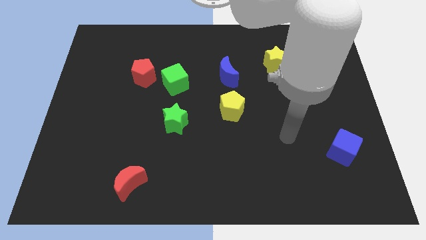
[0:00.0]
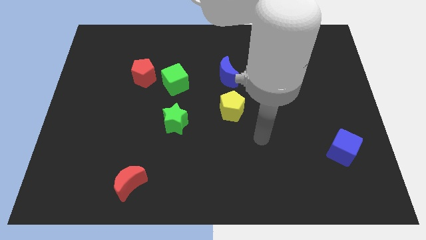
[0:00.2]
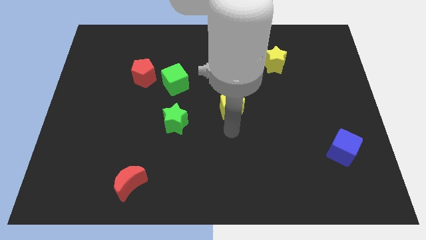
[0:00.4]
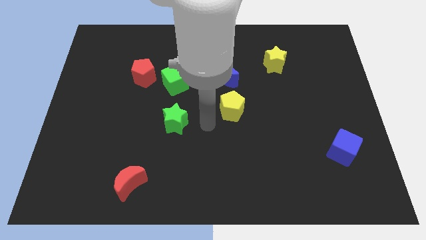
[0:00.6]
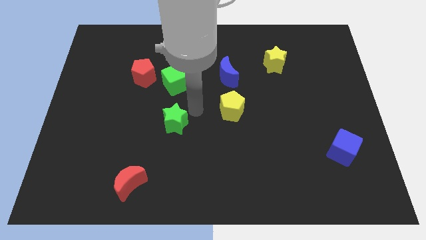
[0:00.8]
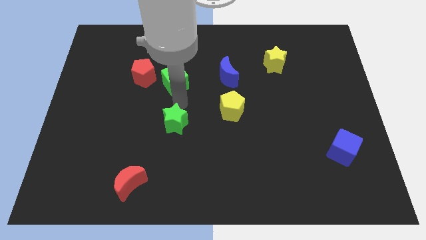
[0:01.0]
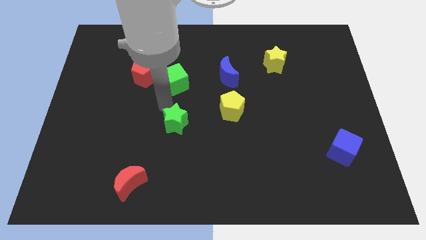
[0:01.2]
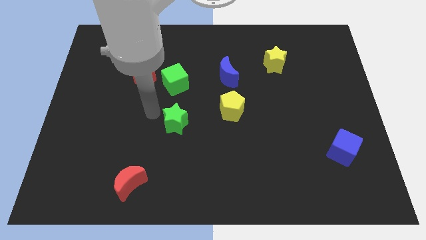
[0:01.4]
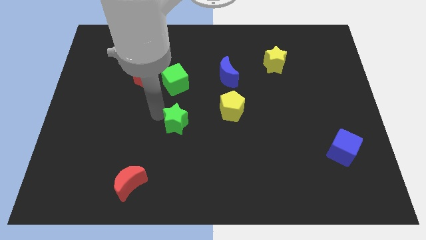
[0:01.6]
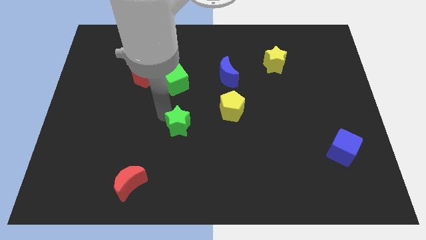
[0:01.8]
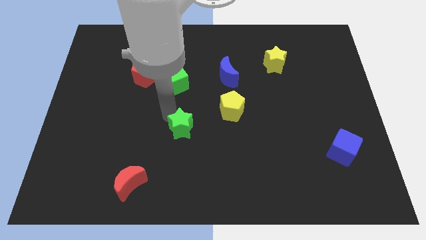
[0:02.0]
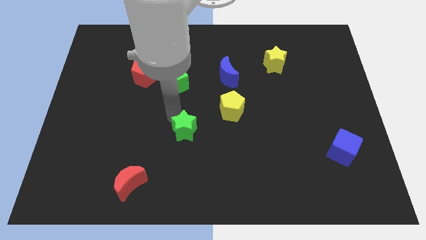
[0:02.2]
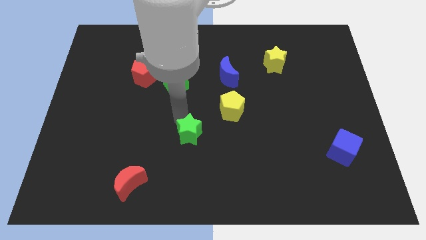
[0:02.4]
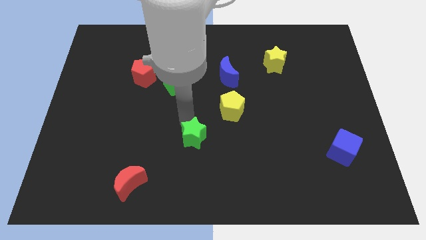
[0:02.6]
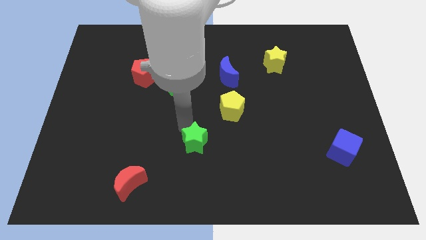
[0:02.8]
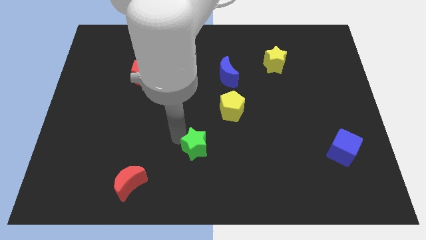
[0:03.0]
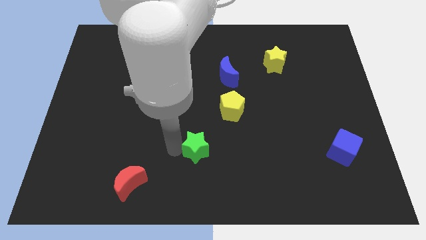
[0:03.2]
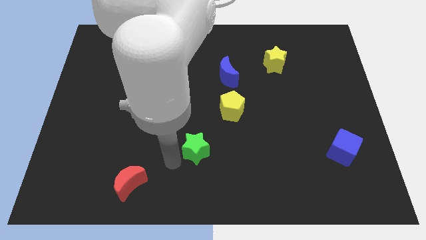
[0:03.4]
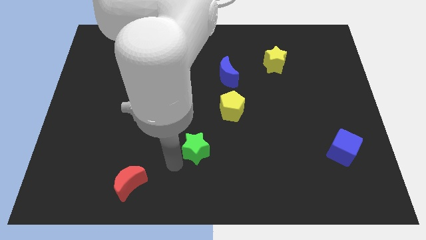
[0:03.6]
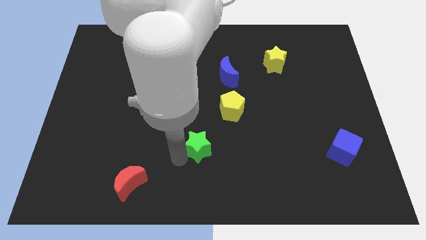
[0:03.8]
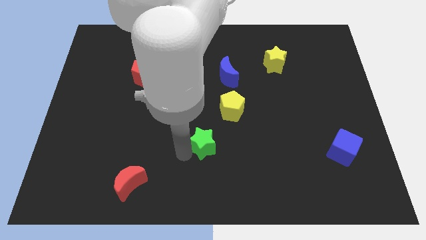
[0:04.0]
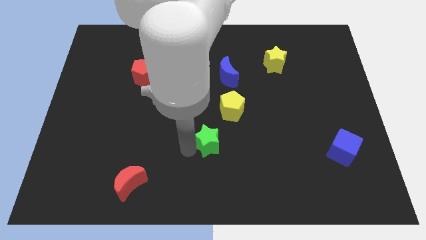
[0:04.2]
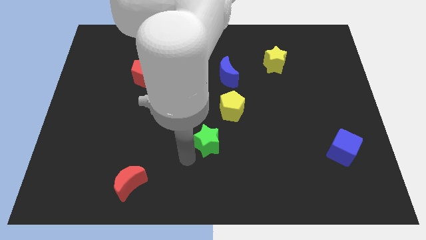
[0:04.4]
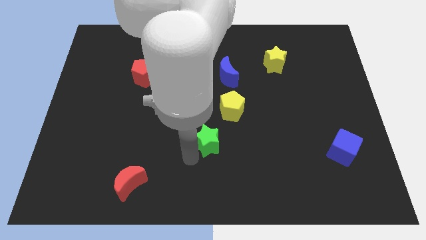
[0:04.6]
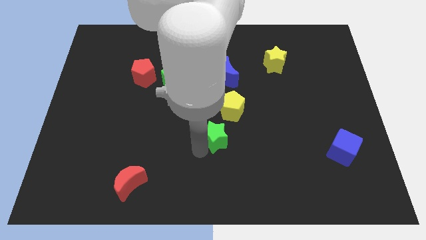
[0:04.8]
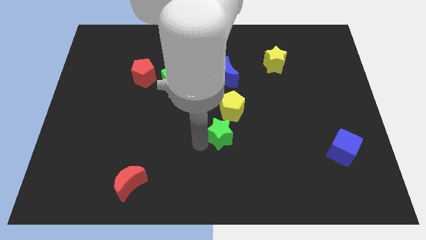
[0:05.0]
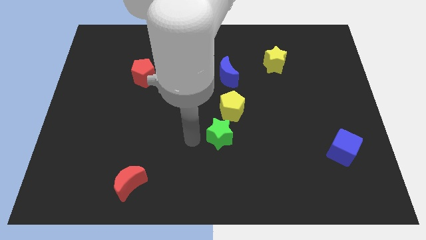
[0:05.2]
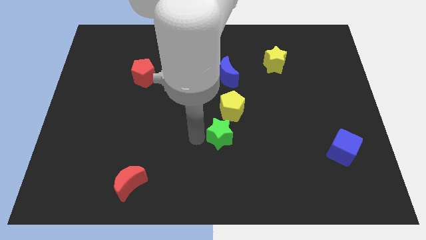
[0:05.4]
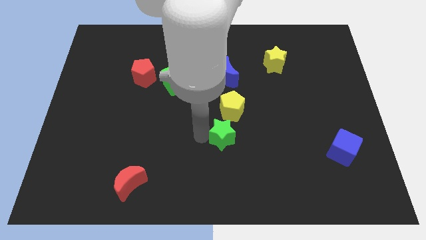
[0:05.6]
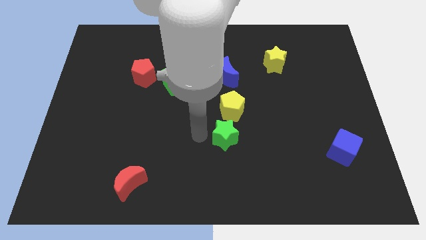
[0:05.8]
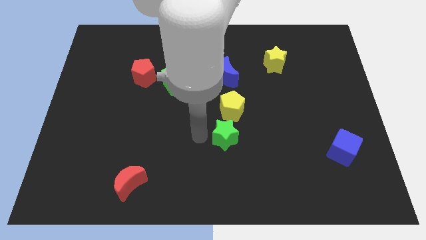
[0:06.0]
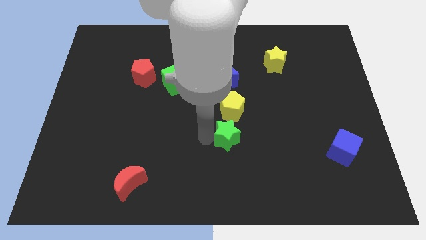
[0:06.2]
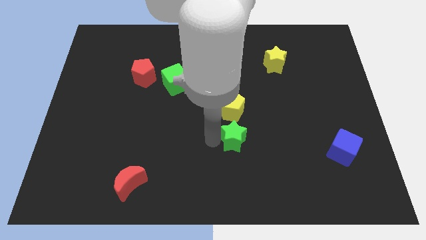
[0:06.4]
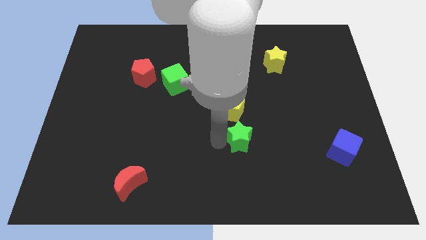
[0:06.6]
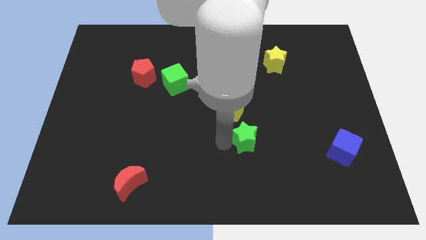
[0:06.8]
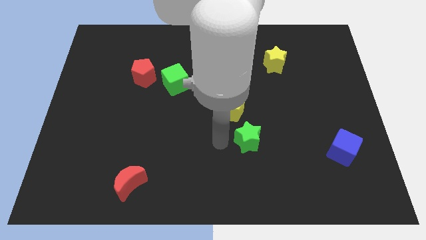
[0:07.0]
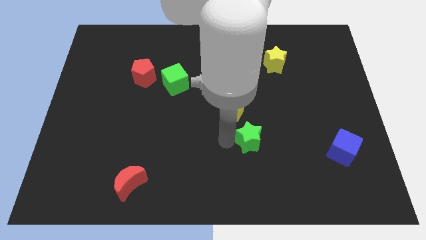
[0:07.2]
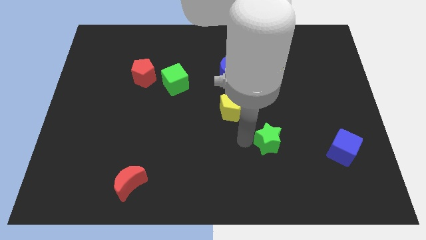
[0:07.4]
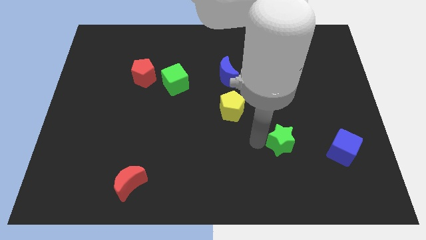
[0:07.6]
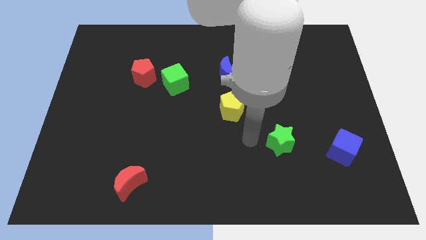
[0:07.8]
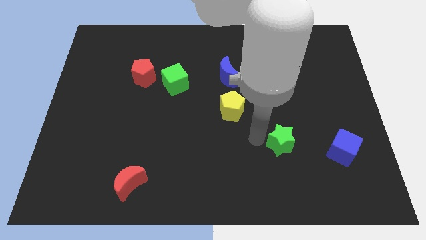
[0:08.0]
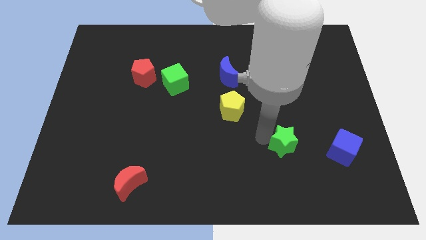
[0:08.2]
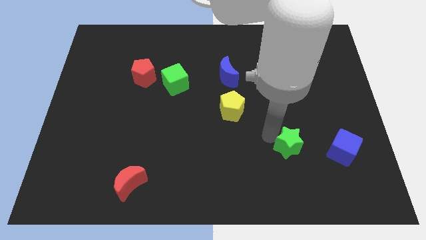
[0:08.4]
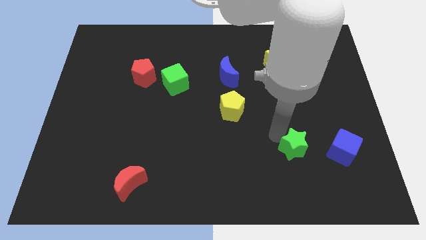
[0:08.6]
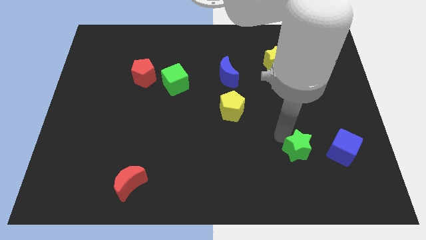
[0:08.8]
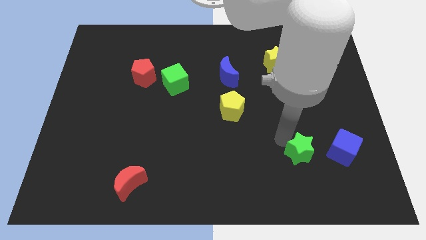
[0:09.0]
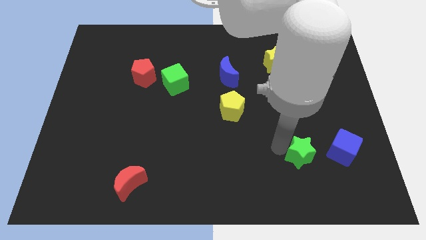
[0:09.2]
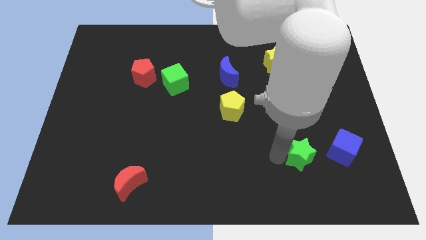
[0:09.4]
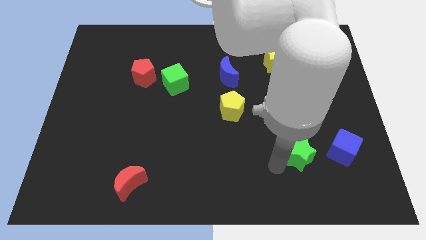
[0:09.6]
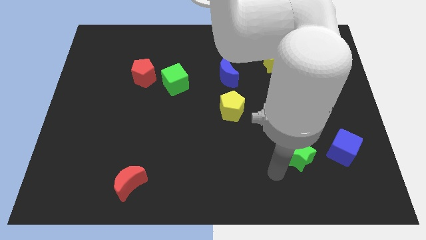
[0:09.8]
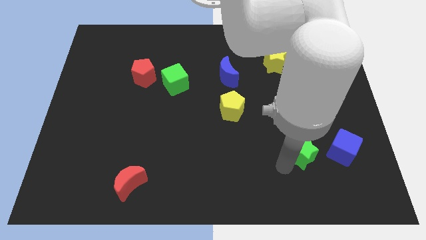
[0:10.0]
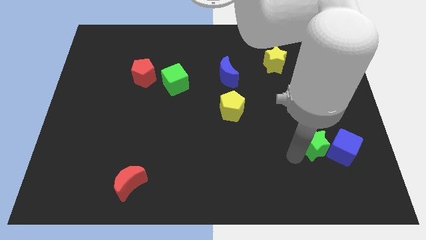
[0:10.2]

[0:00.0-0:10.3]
move the green star towards the blue cube

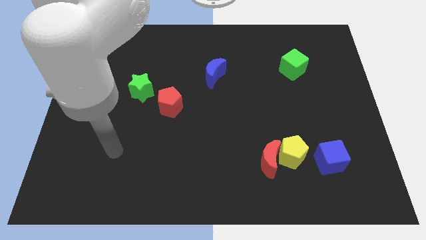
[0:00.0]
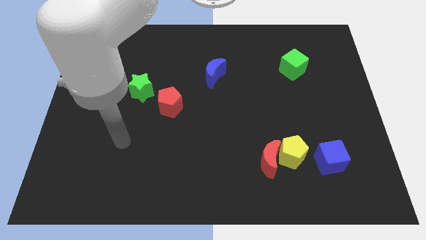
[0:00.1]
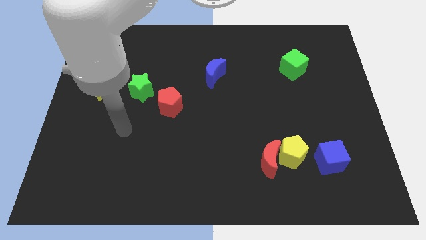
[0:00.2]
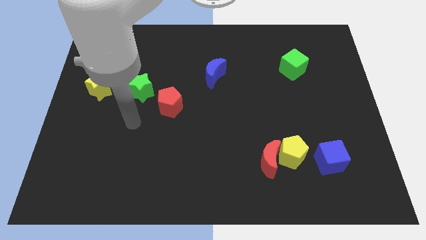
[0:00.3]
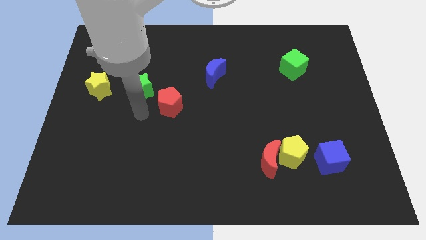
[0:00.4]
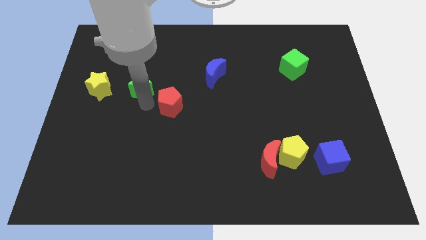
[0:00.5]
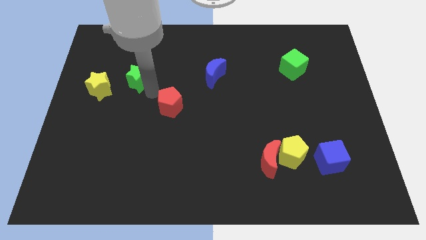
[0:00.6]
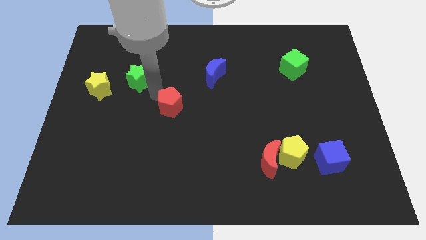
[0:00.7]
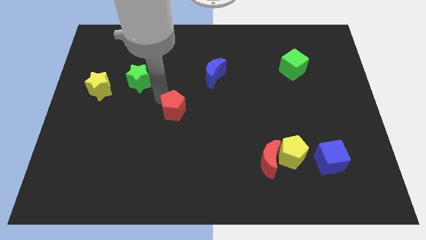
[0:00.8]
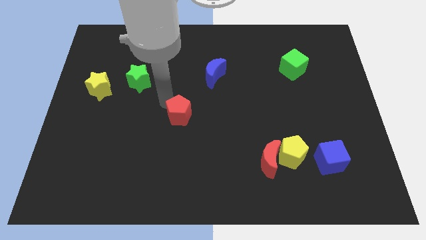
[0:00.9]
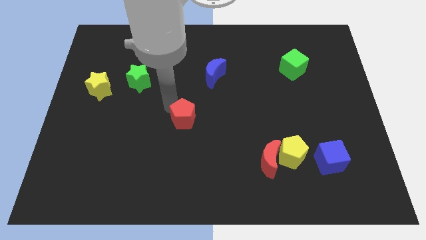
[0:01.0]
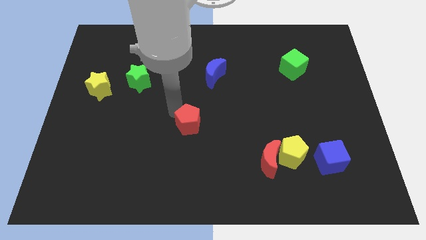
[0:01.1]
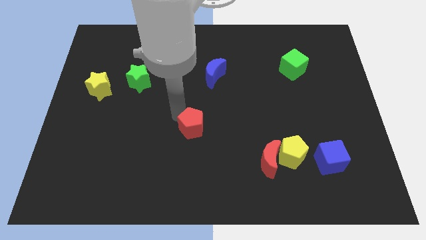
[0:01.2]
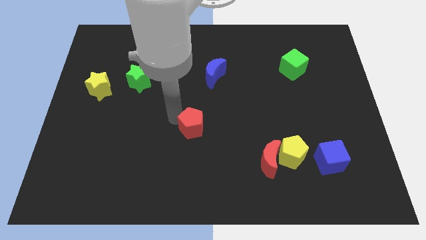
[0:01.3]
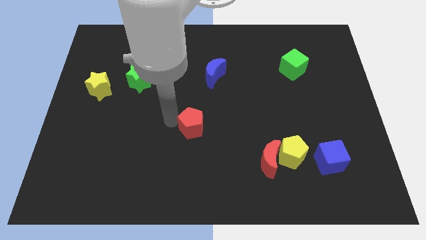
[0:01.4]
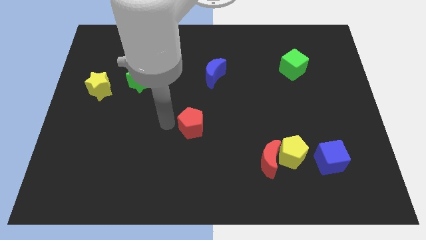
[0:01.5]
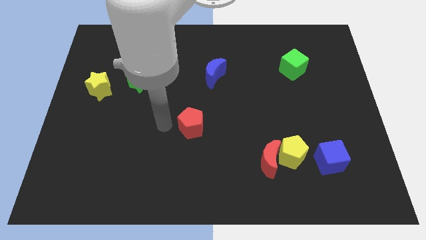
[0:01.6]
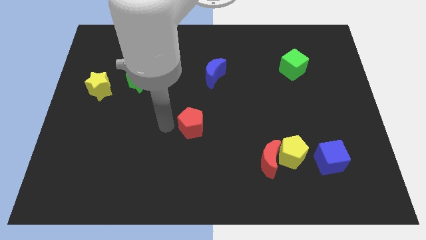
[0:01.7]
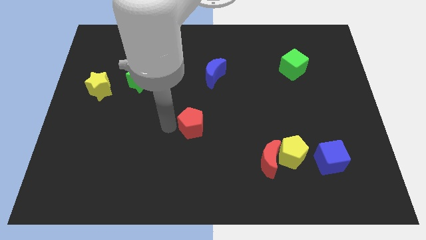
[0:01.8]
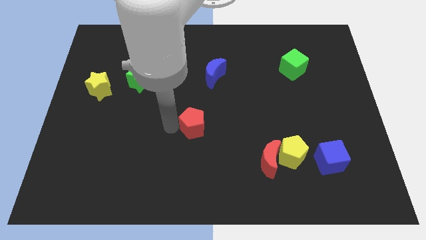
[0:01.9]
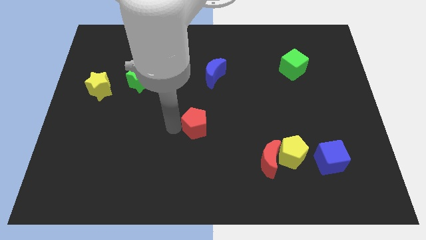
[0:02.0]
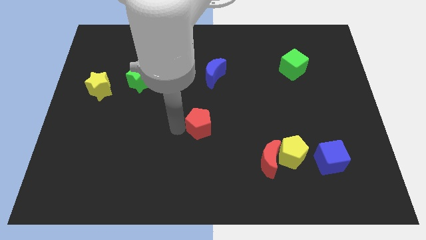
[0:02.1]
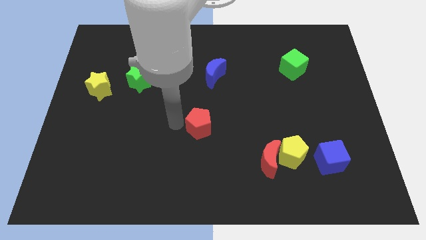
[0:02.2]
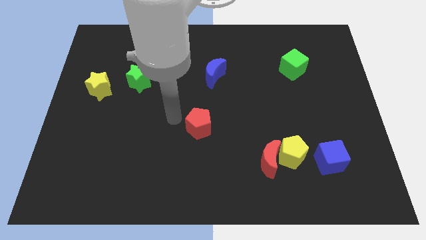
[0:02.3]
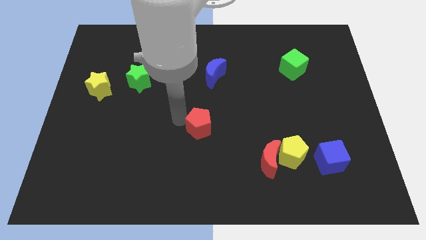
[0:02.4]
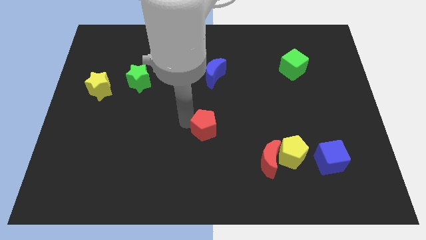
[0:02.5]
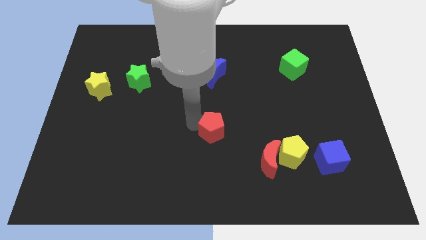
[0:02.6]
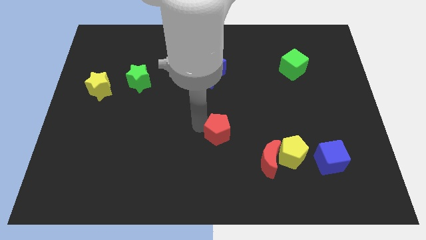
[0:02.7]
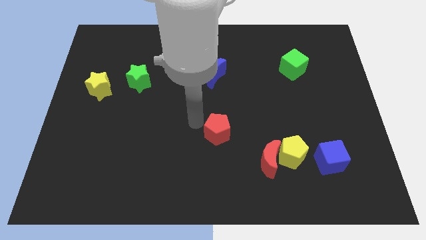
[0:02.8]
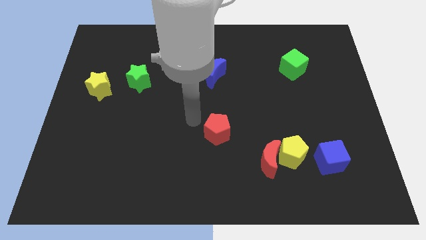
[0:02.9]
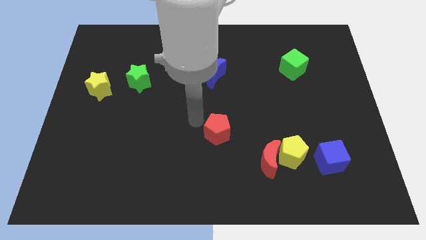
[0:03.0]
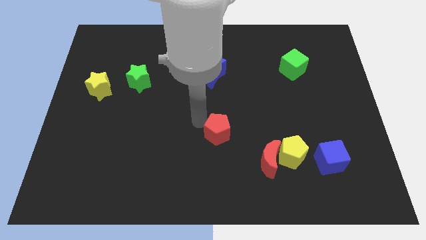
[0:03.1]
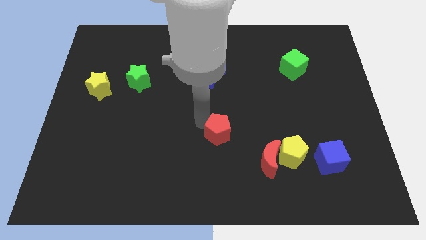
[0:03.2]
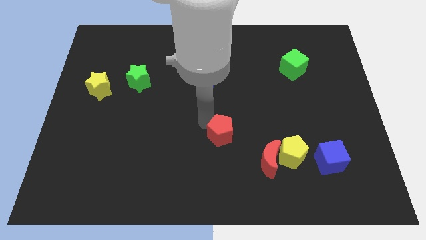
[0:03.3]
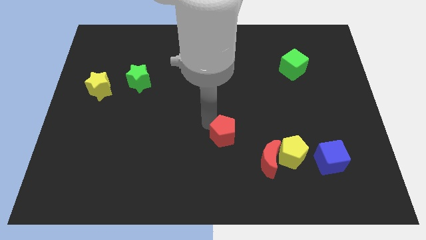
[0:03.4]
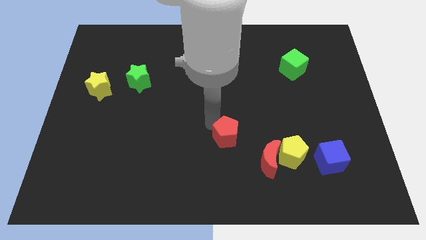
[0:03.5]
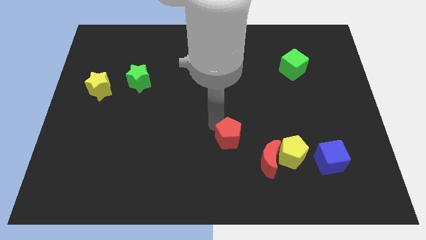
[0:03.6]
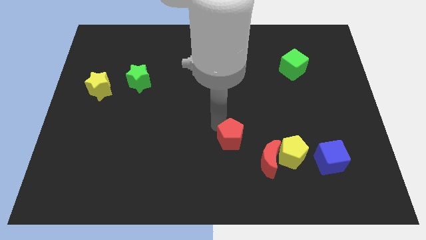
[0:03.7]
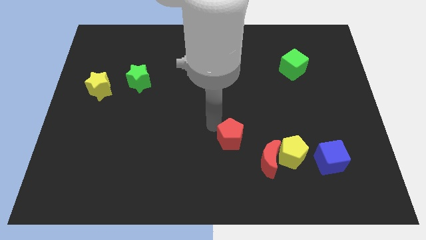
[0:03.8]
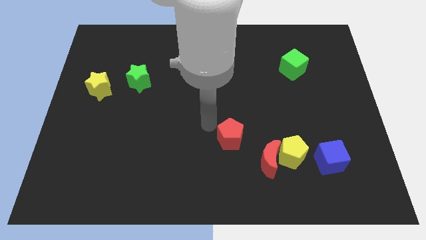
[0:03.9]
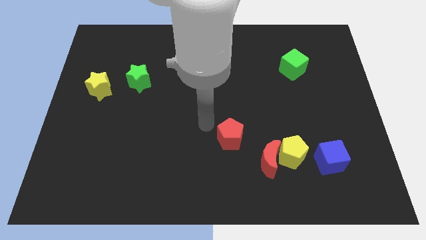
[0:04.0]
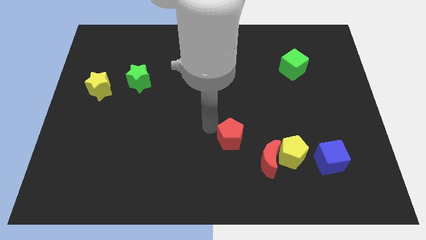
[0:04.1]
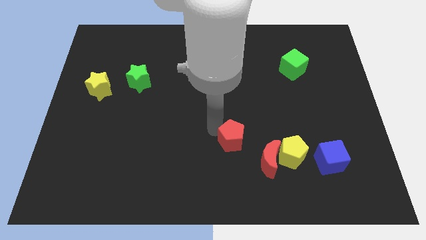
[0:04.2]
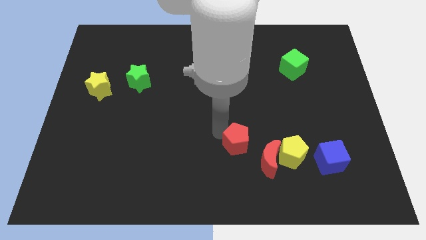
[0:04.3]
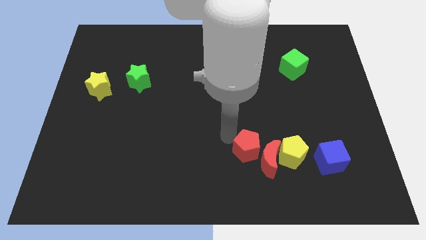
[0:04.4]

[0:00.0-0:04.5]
slide the red pentagon close to the red moon
